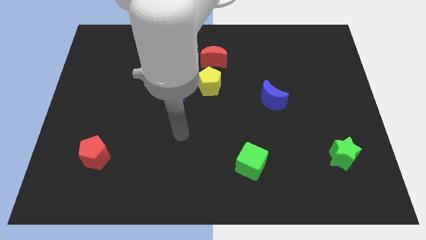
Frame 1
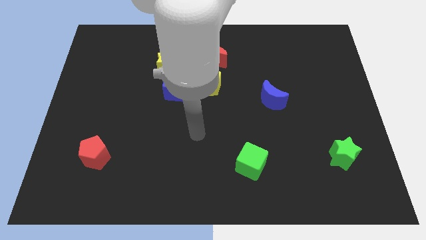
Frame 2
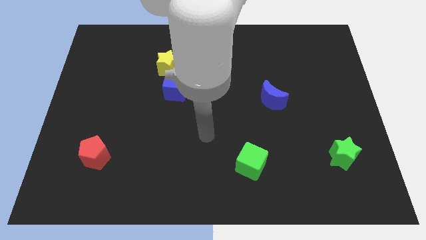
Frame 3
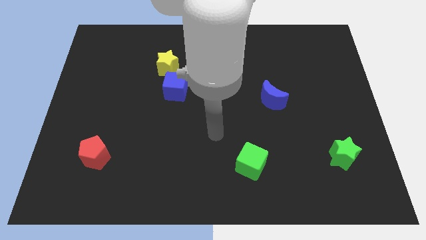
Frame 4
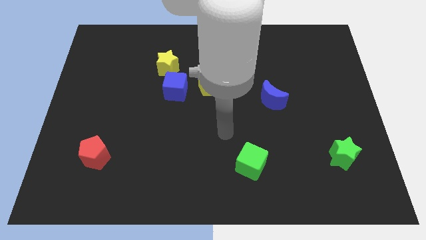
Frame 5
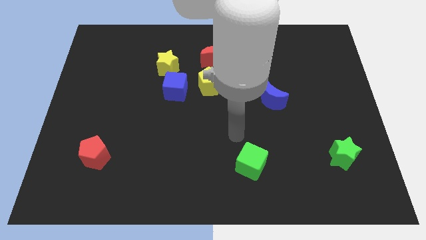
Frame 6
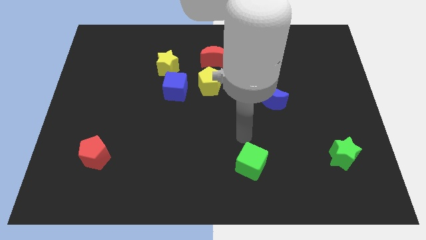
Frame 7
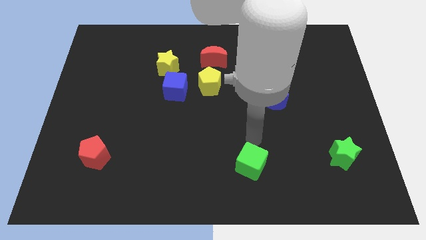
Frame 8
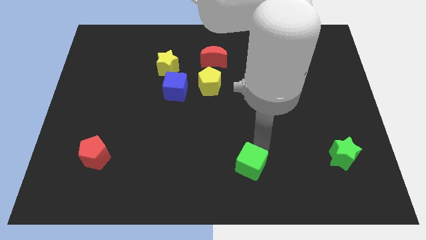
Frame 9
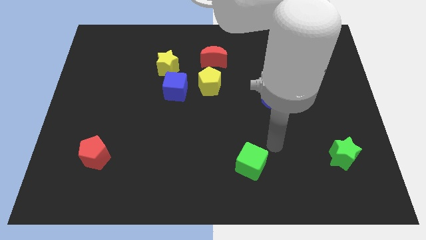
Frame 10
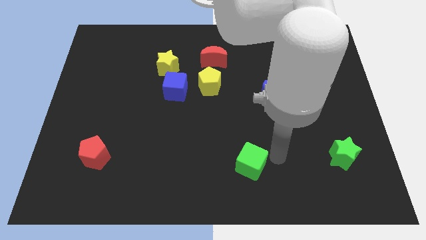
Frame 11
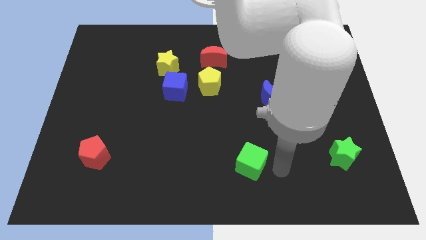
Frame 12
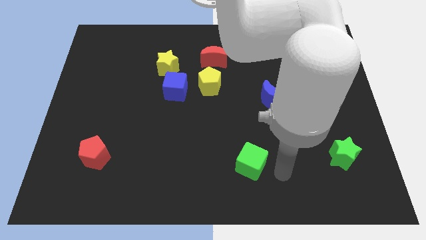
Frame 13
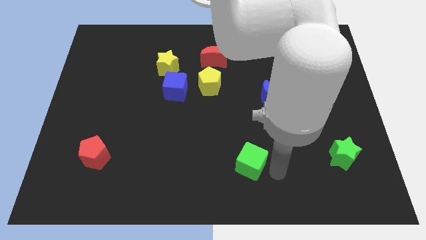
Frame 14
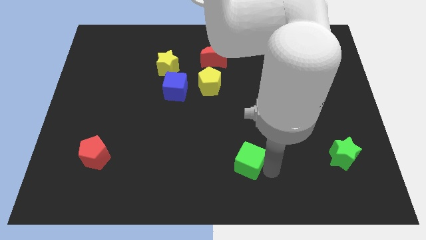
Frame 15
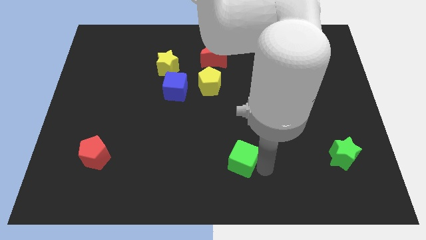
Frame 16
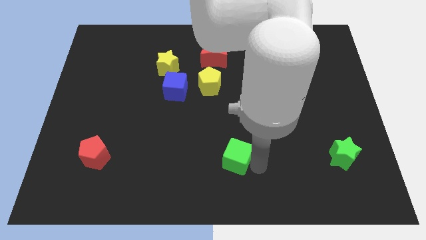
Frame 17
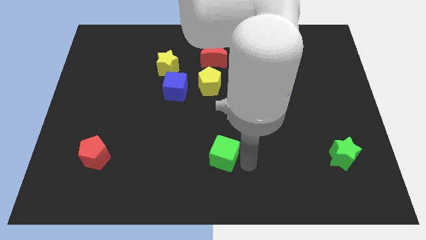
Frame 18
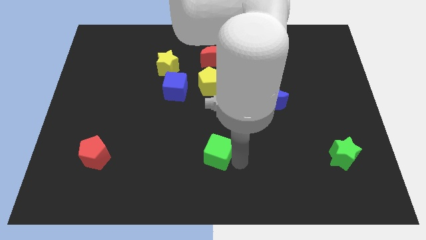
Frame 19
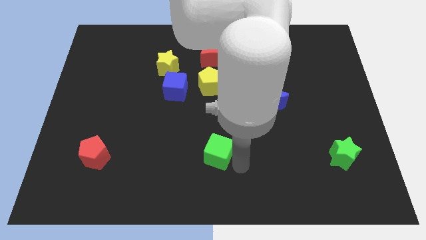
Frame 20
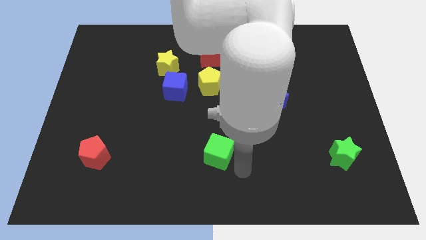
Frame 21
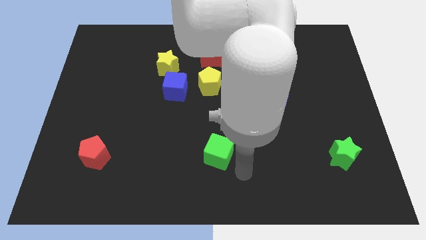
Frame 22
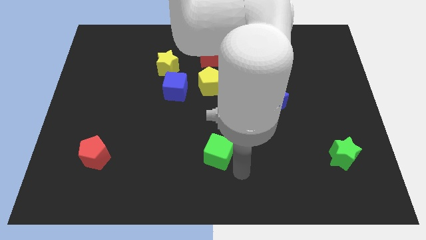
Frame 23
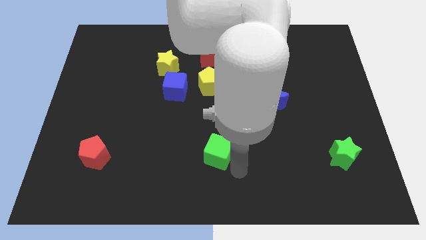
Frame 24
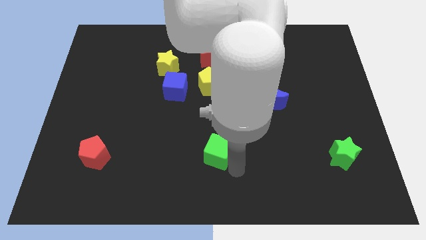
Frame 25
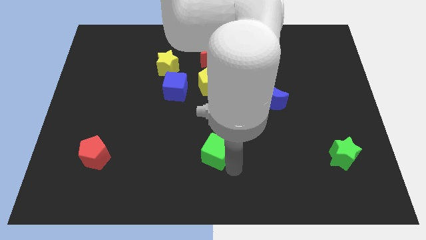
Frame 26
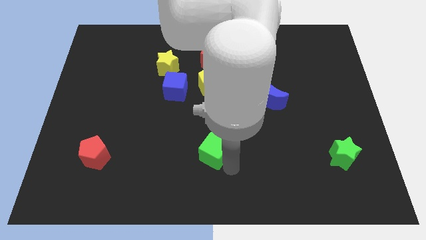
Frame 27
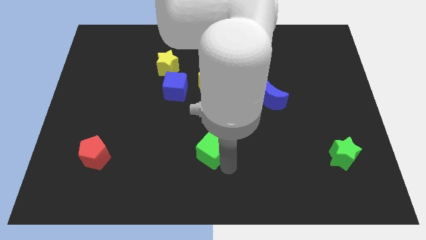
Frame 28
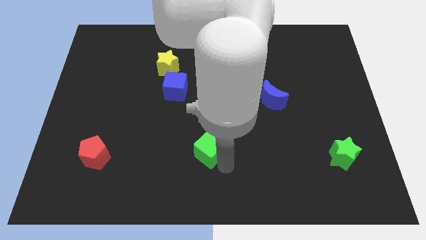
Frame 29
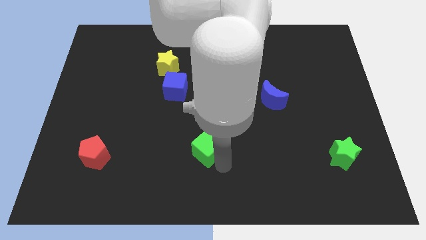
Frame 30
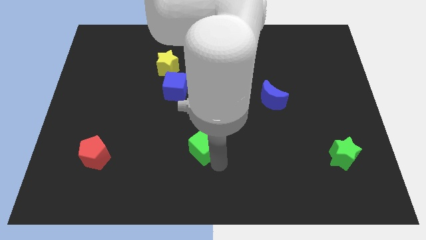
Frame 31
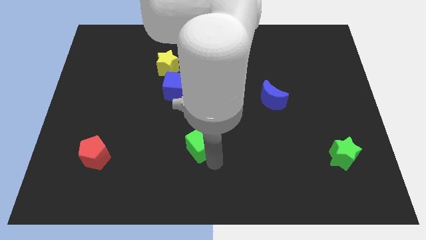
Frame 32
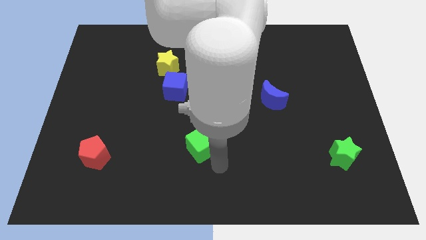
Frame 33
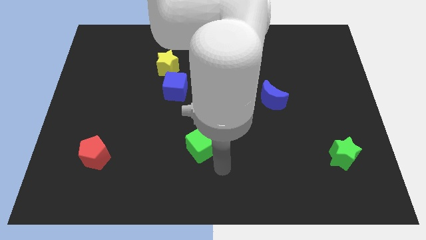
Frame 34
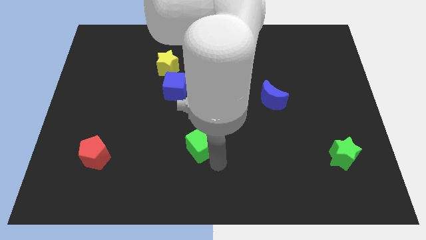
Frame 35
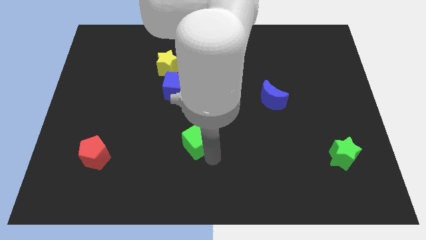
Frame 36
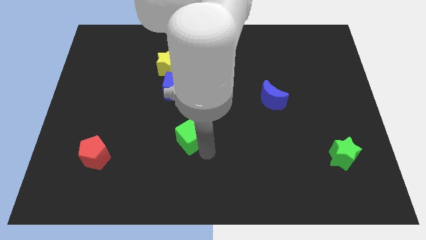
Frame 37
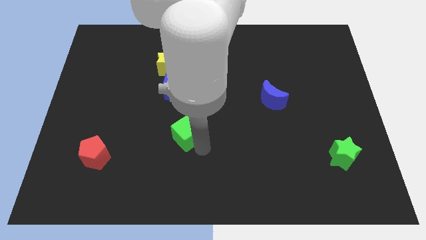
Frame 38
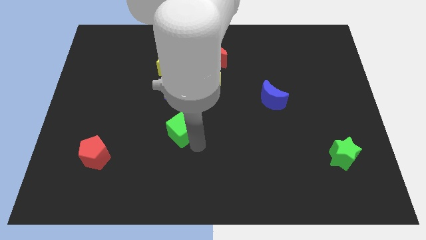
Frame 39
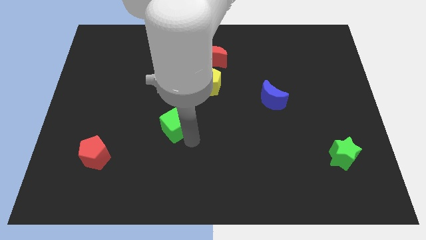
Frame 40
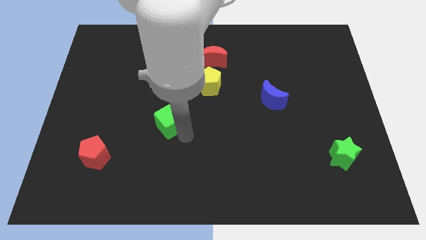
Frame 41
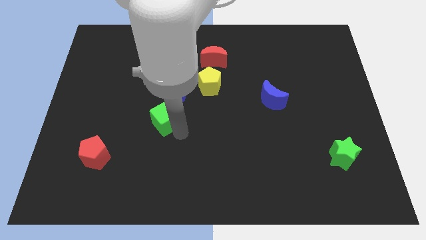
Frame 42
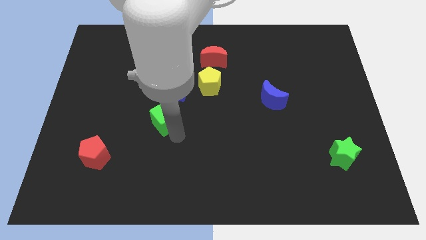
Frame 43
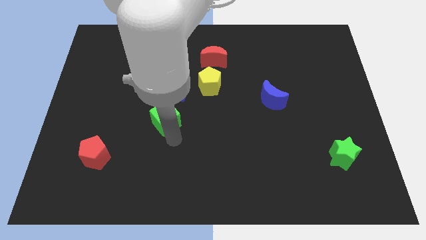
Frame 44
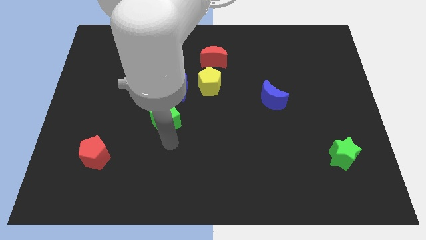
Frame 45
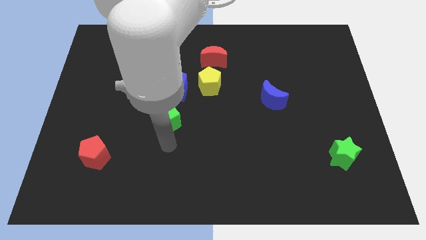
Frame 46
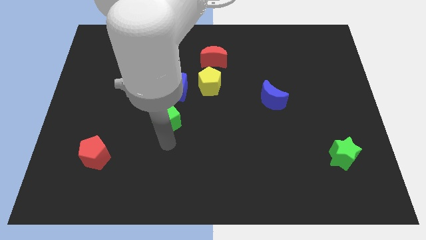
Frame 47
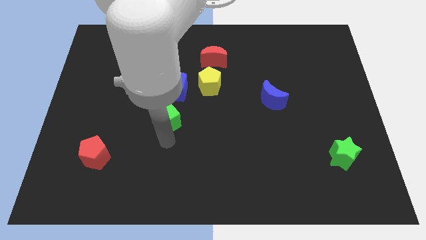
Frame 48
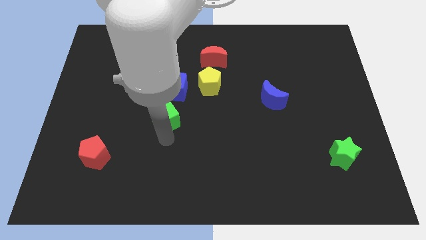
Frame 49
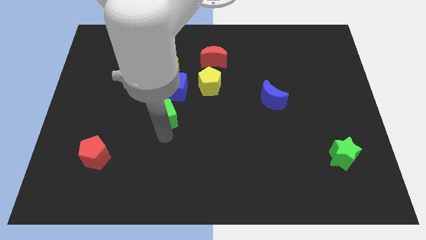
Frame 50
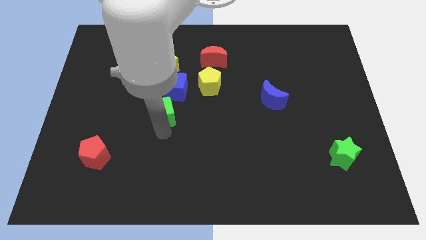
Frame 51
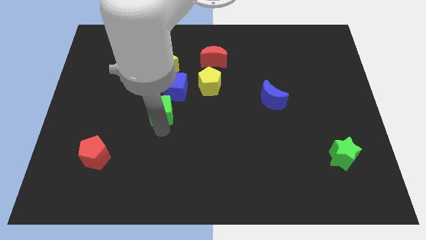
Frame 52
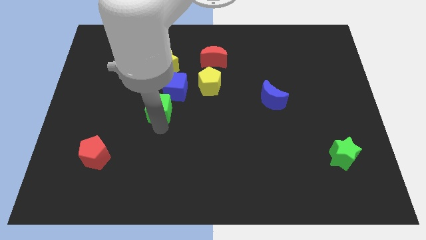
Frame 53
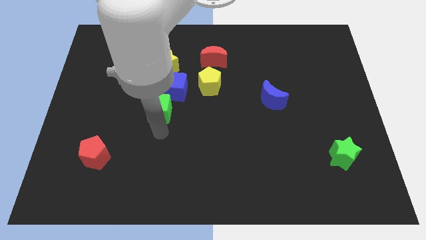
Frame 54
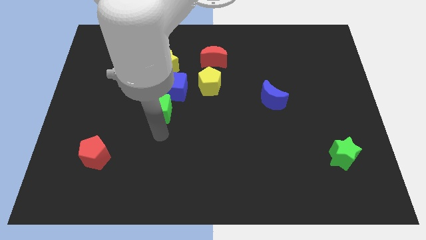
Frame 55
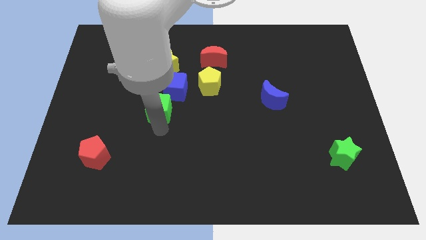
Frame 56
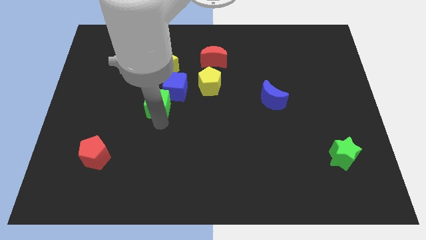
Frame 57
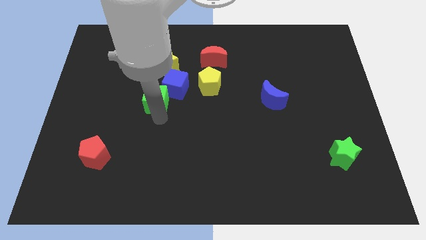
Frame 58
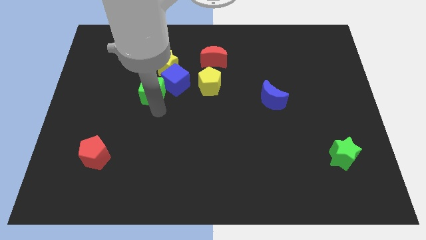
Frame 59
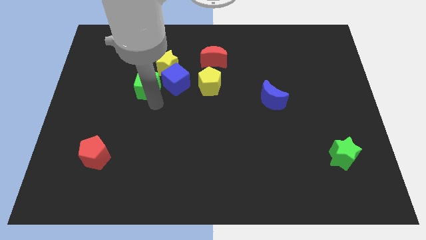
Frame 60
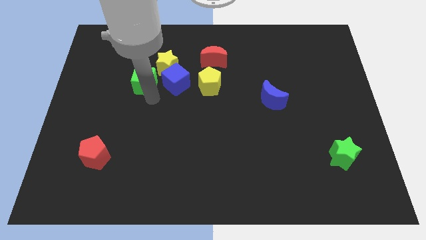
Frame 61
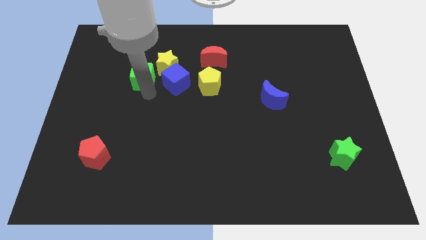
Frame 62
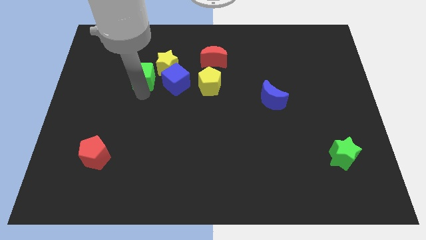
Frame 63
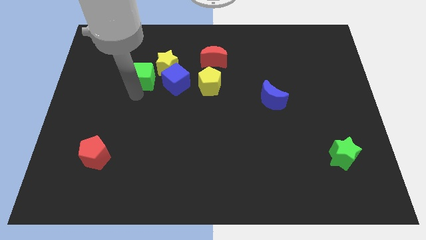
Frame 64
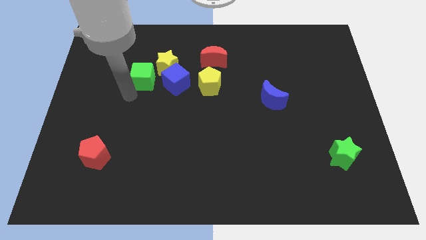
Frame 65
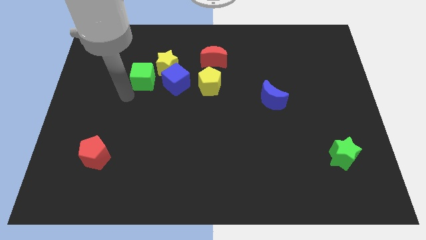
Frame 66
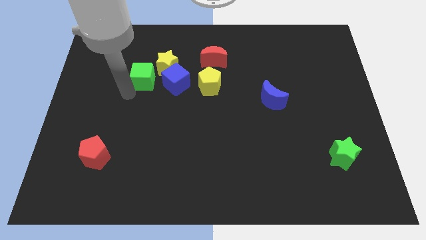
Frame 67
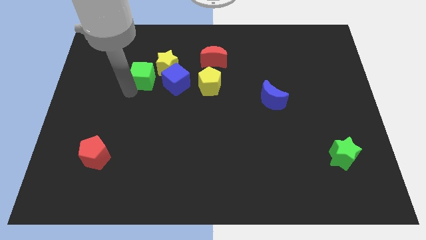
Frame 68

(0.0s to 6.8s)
push the green cube to the top left side of the blue cube
